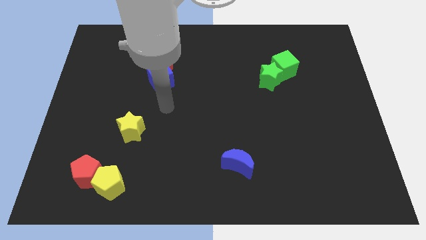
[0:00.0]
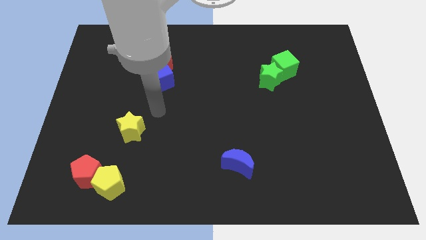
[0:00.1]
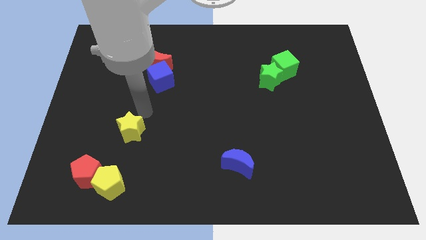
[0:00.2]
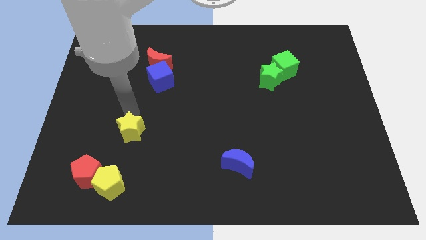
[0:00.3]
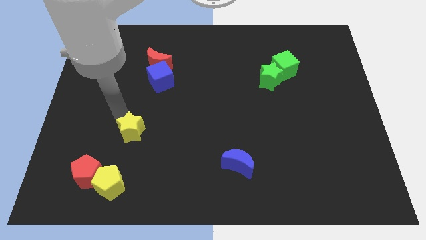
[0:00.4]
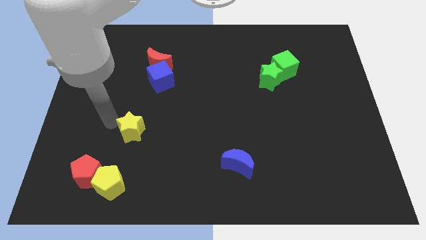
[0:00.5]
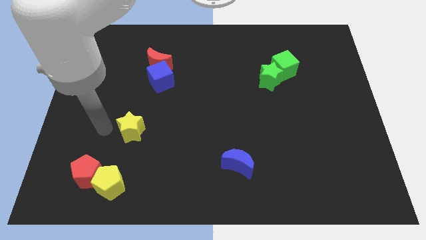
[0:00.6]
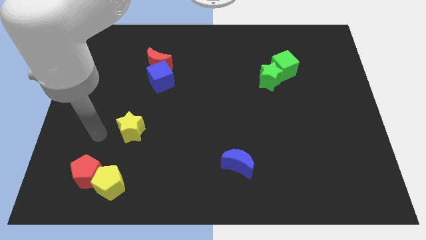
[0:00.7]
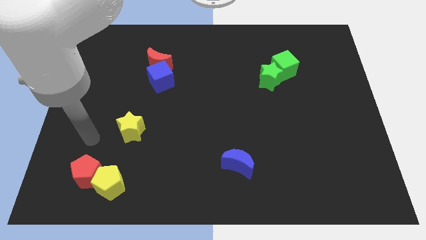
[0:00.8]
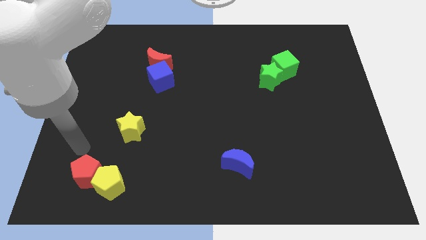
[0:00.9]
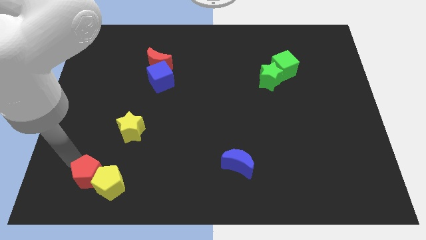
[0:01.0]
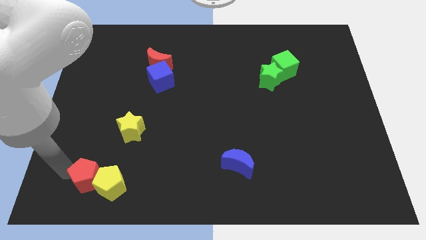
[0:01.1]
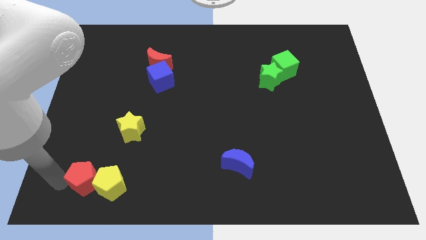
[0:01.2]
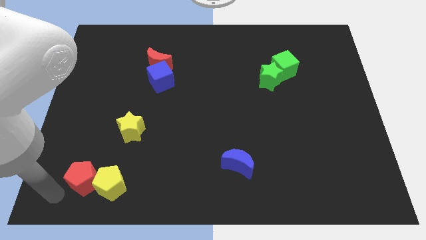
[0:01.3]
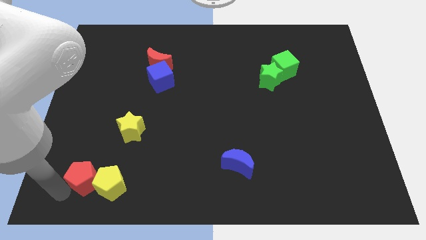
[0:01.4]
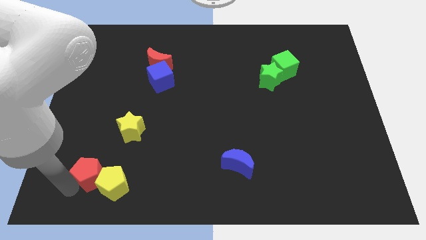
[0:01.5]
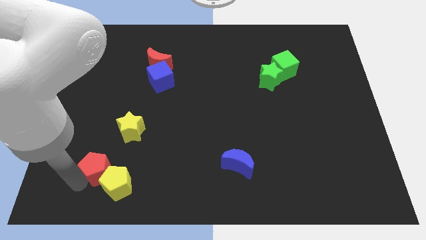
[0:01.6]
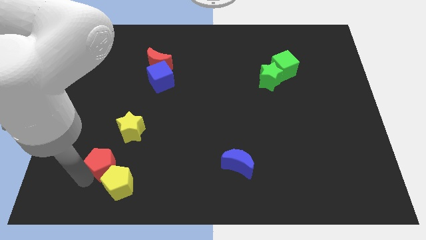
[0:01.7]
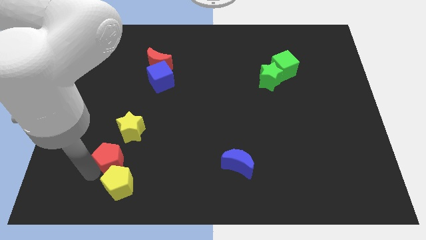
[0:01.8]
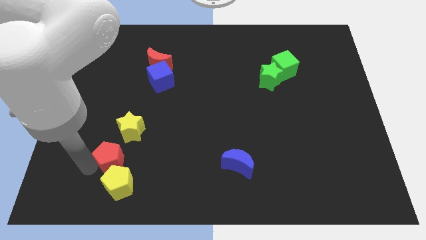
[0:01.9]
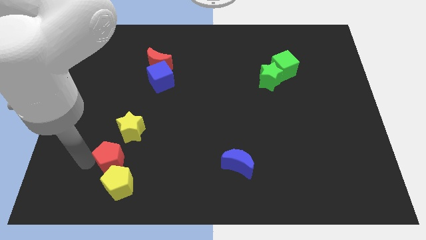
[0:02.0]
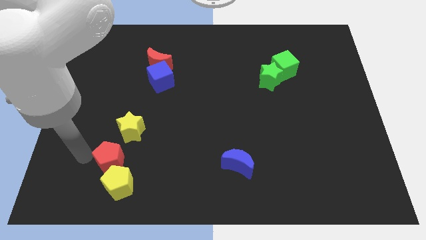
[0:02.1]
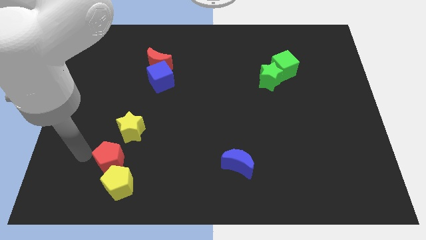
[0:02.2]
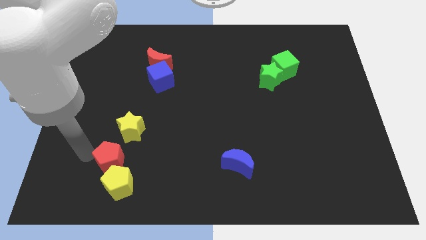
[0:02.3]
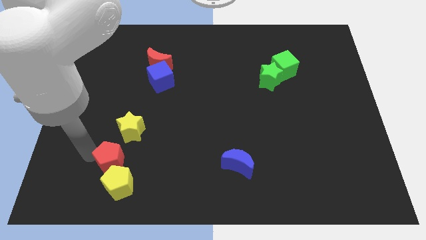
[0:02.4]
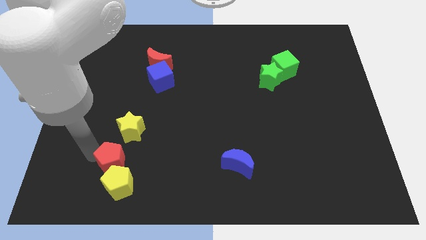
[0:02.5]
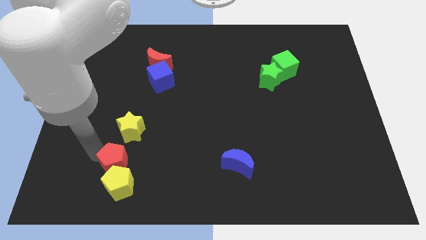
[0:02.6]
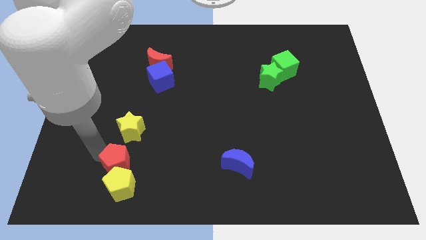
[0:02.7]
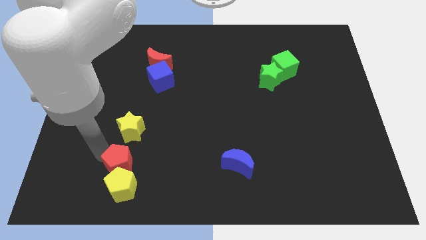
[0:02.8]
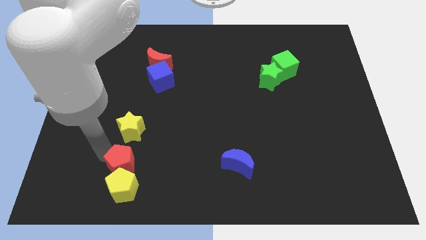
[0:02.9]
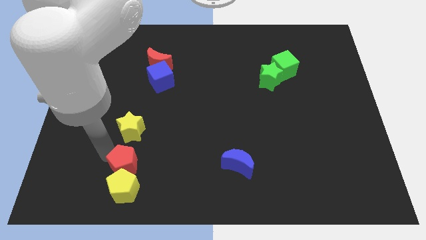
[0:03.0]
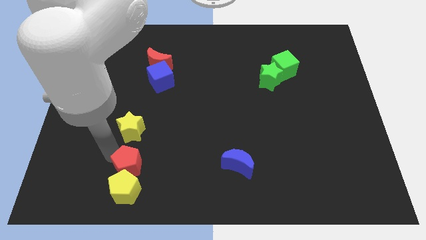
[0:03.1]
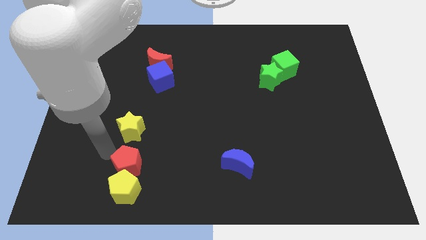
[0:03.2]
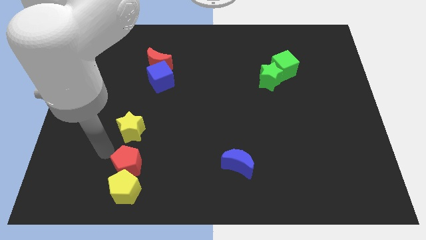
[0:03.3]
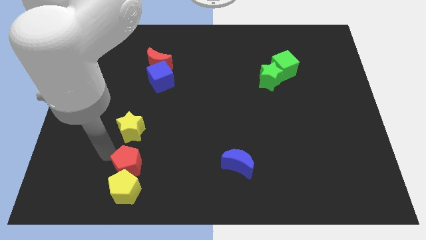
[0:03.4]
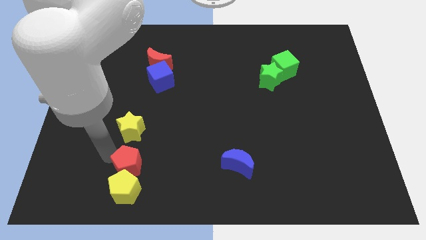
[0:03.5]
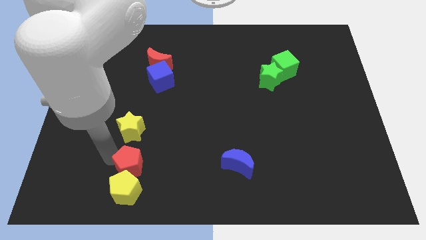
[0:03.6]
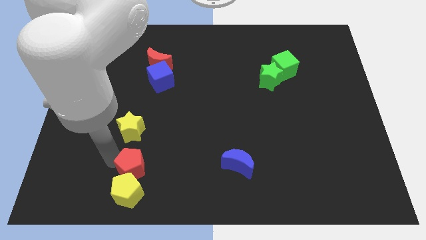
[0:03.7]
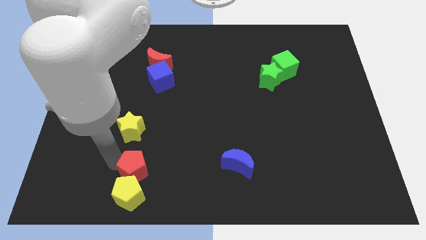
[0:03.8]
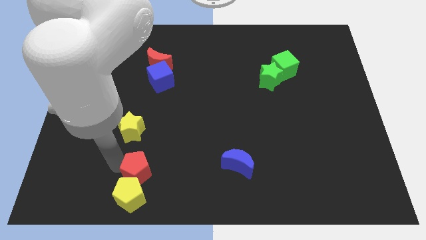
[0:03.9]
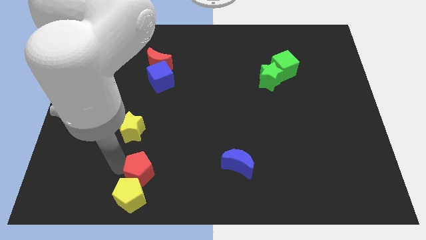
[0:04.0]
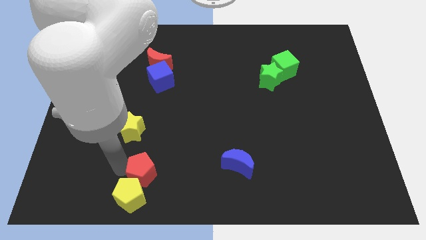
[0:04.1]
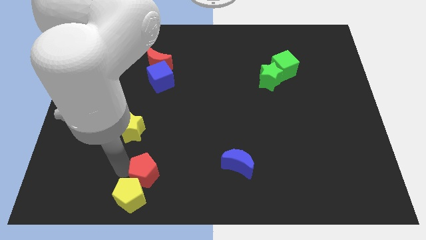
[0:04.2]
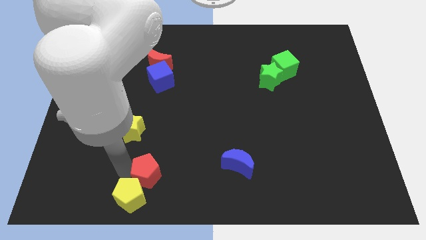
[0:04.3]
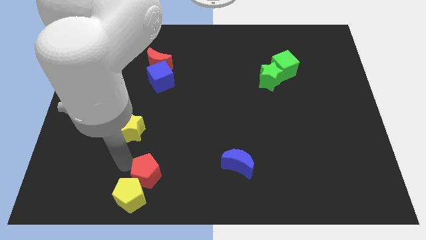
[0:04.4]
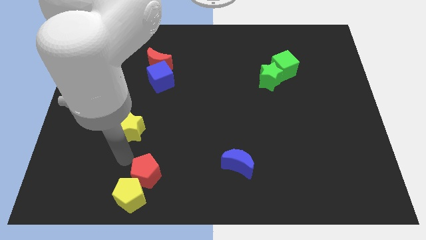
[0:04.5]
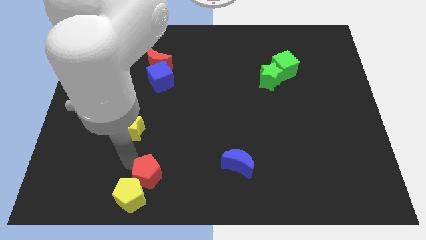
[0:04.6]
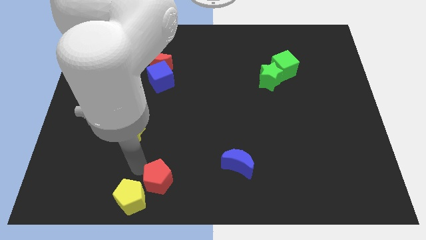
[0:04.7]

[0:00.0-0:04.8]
slide the red pentagon to the bottom

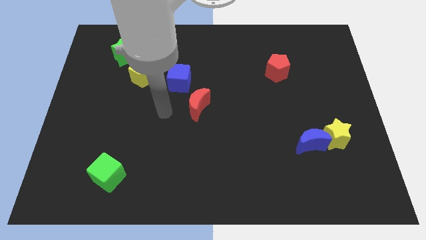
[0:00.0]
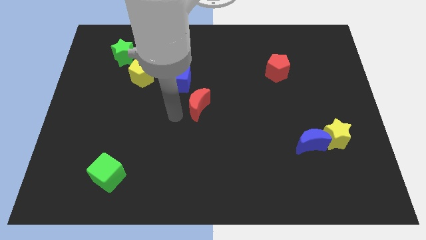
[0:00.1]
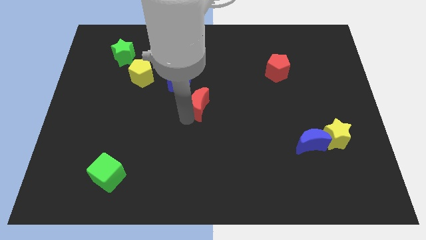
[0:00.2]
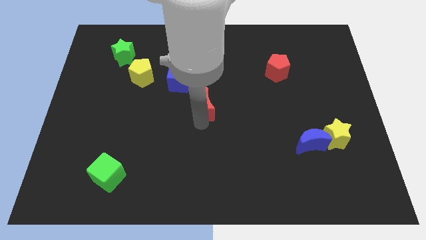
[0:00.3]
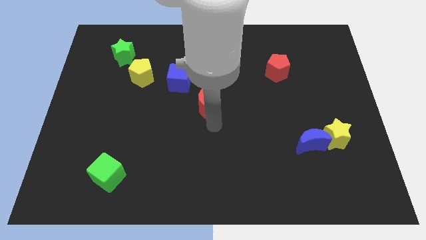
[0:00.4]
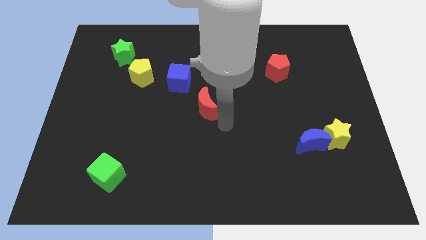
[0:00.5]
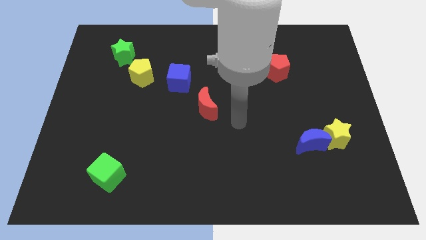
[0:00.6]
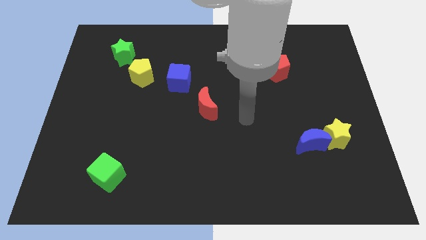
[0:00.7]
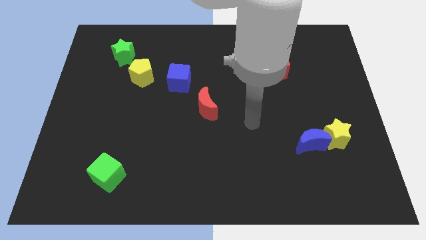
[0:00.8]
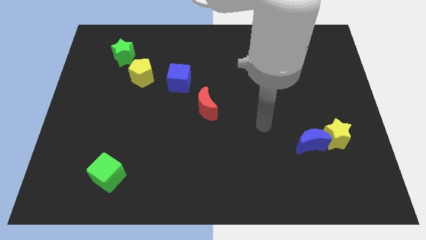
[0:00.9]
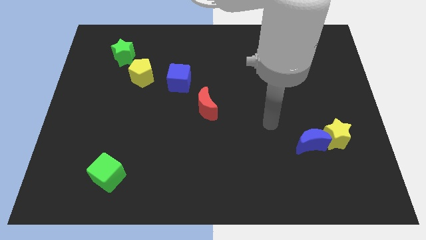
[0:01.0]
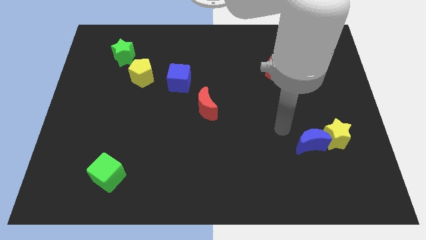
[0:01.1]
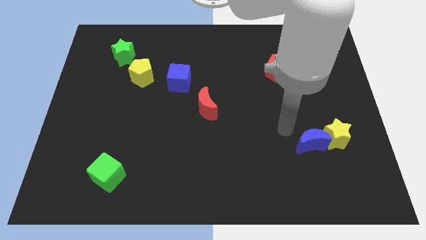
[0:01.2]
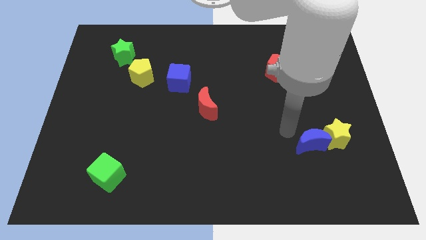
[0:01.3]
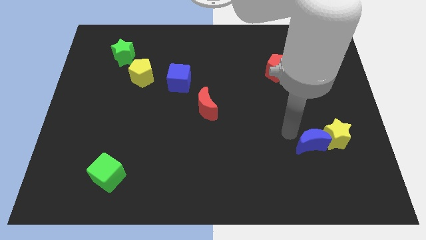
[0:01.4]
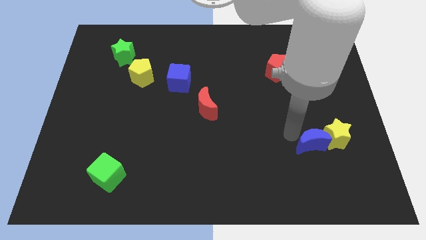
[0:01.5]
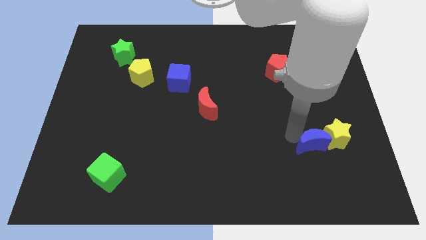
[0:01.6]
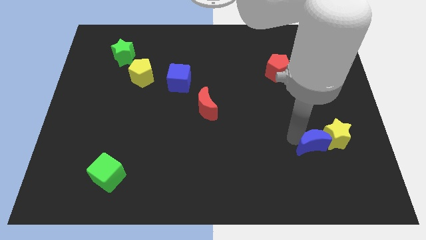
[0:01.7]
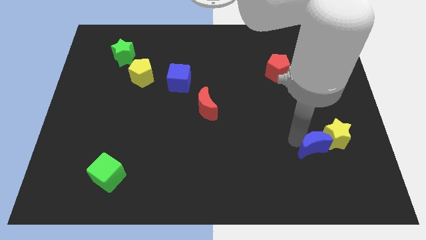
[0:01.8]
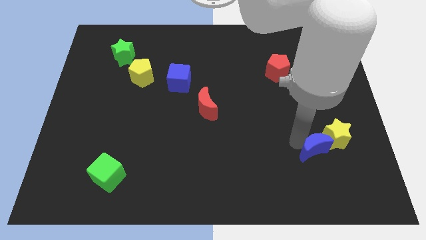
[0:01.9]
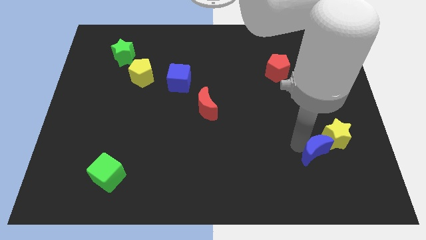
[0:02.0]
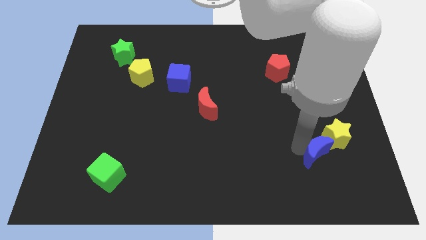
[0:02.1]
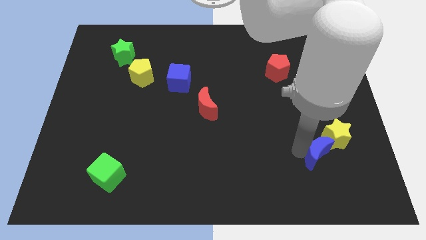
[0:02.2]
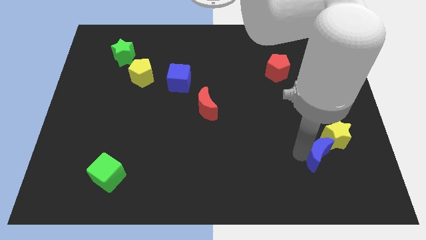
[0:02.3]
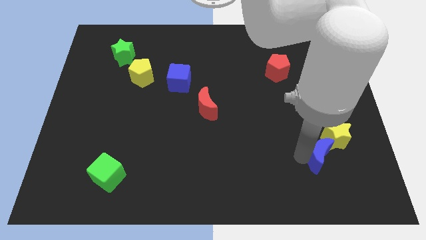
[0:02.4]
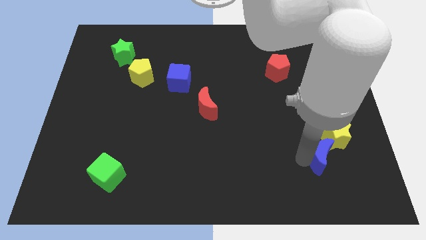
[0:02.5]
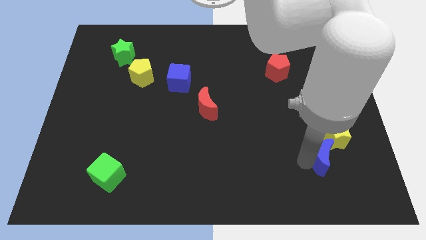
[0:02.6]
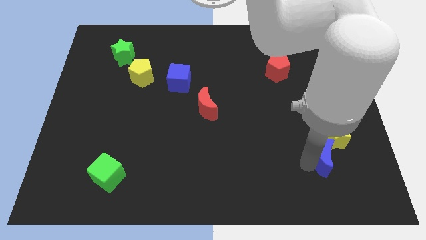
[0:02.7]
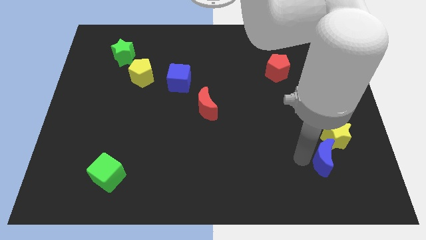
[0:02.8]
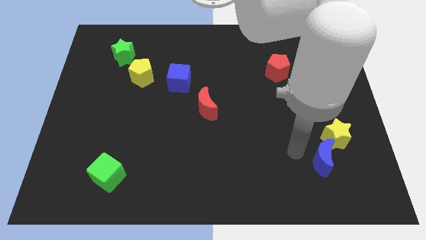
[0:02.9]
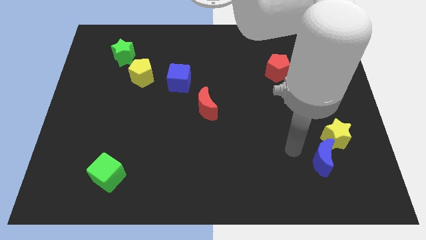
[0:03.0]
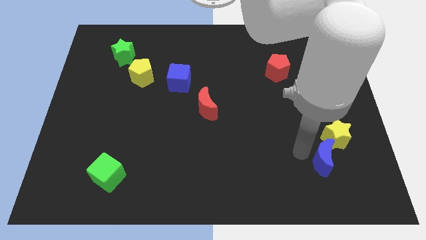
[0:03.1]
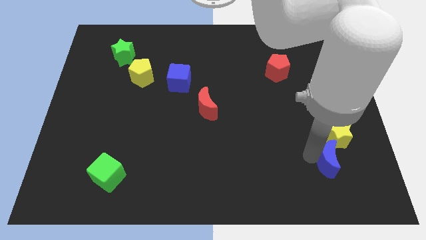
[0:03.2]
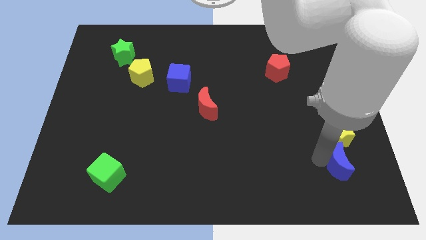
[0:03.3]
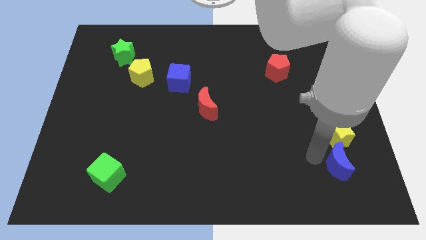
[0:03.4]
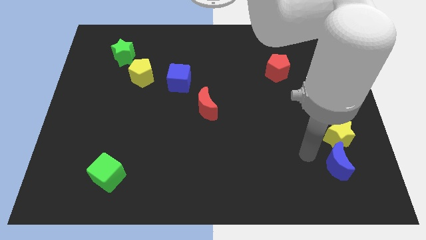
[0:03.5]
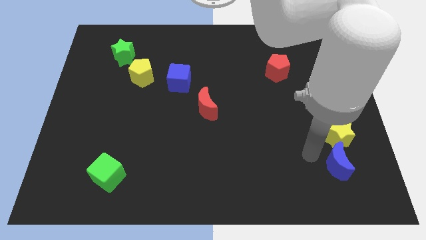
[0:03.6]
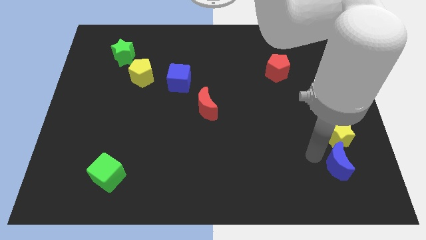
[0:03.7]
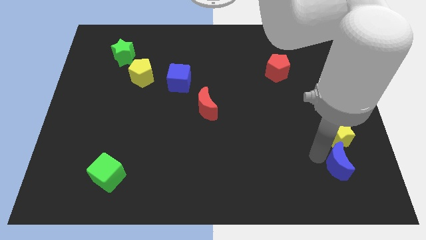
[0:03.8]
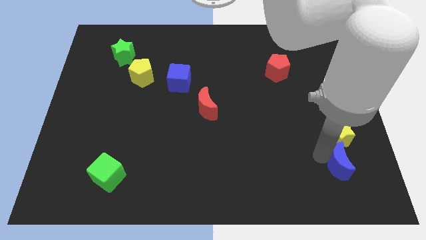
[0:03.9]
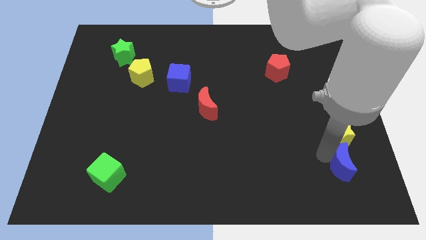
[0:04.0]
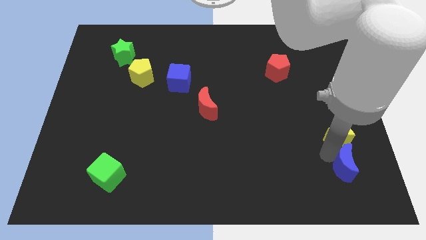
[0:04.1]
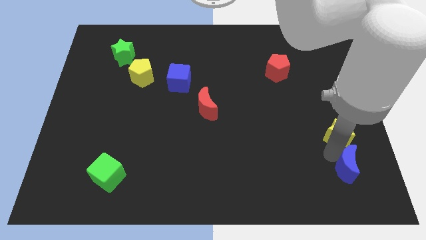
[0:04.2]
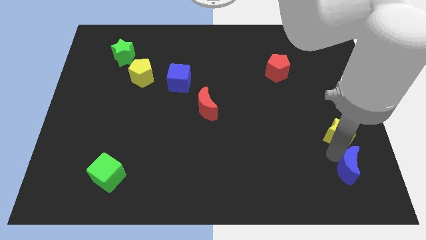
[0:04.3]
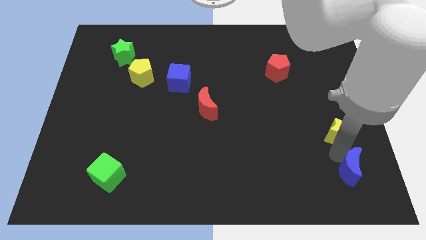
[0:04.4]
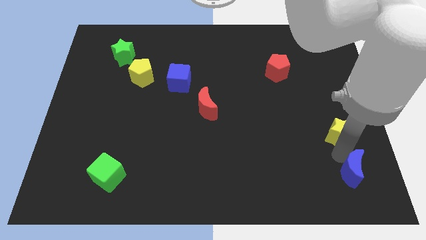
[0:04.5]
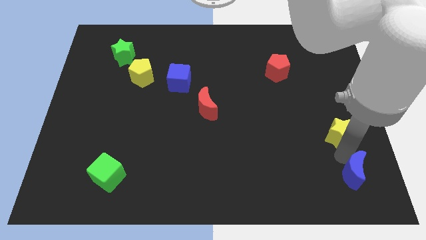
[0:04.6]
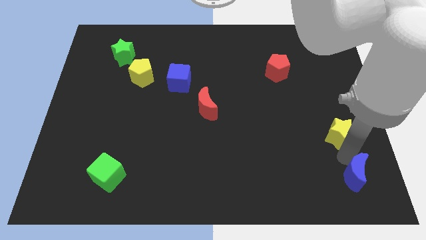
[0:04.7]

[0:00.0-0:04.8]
move the blue moon to the bottom right
